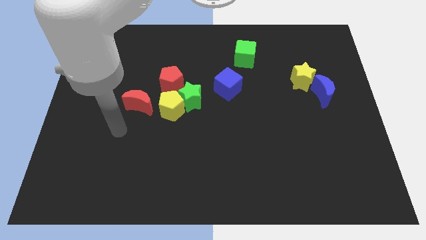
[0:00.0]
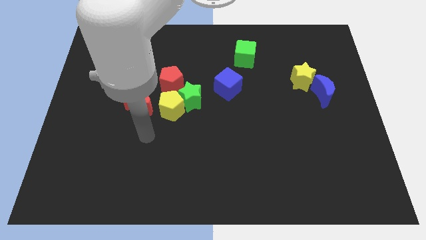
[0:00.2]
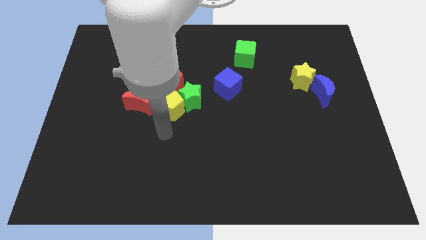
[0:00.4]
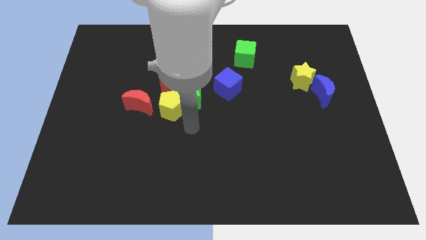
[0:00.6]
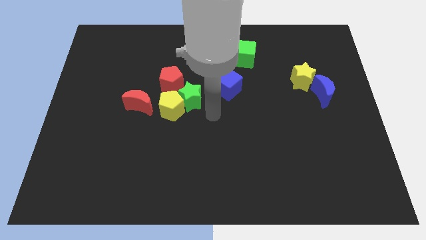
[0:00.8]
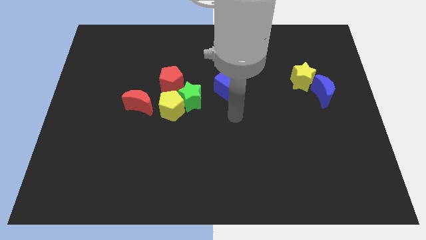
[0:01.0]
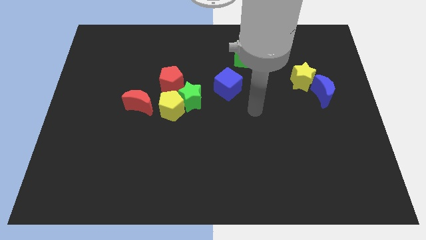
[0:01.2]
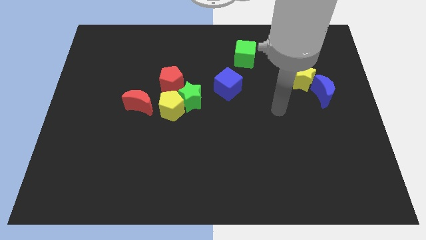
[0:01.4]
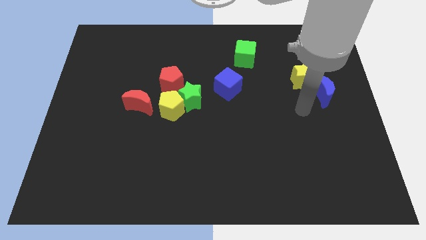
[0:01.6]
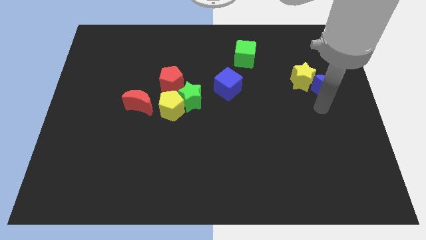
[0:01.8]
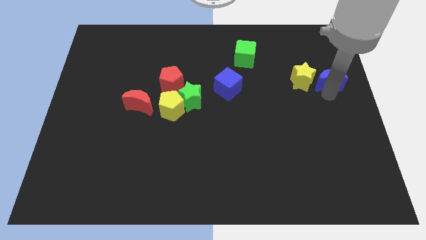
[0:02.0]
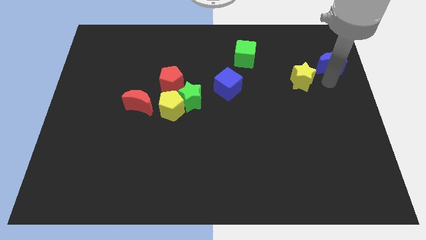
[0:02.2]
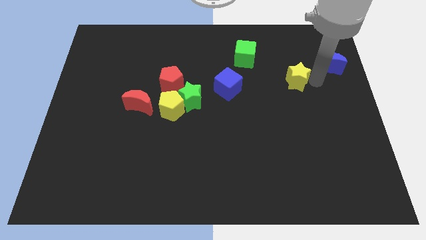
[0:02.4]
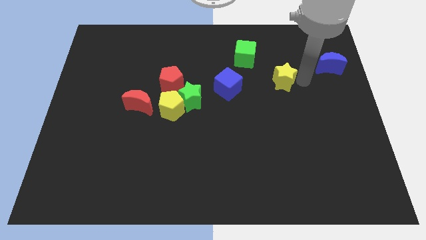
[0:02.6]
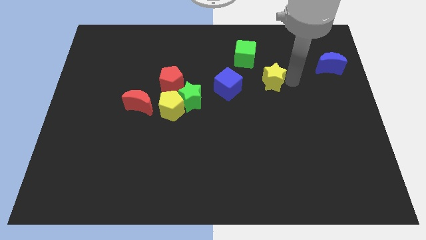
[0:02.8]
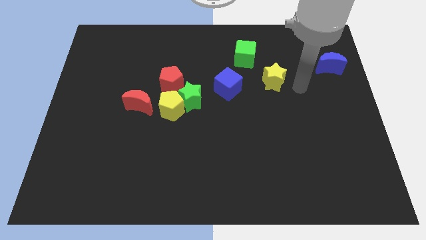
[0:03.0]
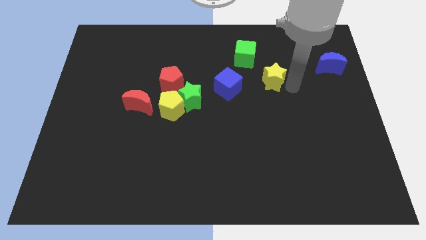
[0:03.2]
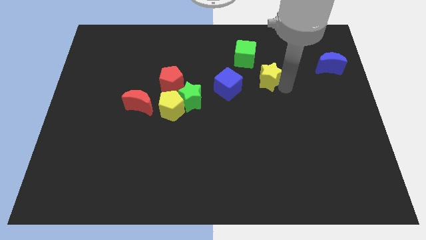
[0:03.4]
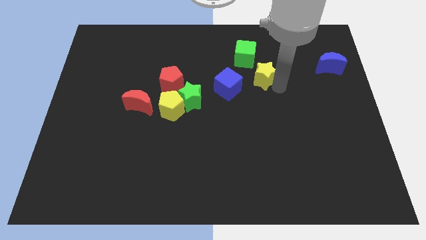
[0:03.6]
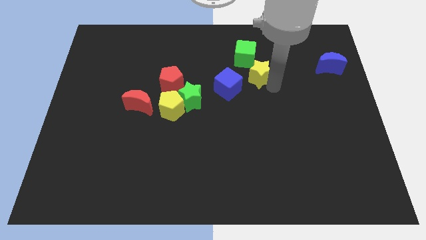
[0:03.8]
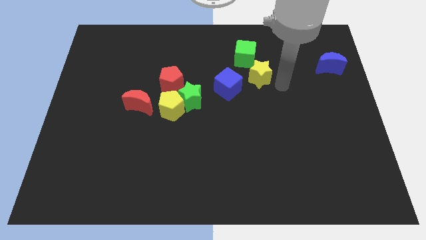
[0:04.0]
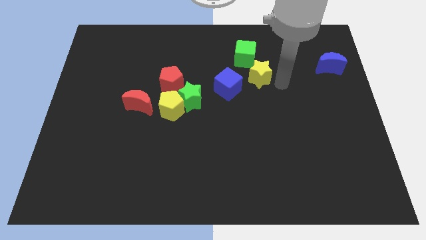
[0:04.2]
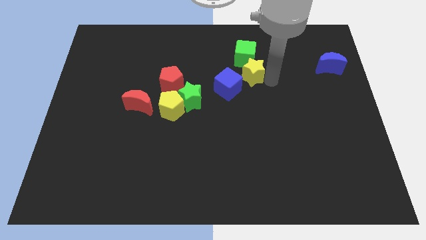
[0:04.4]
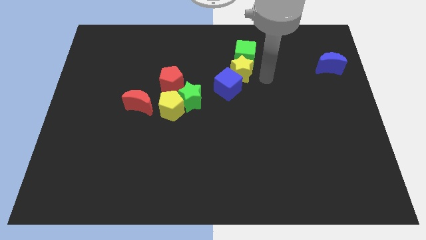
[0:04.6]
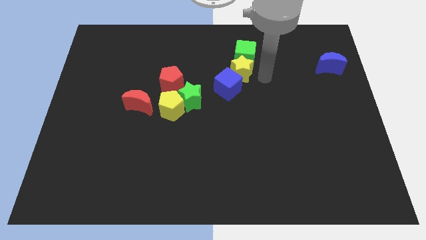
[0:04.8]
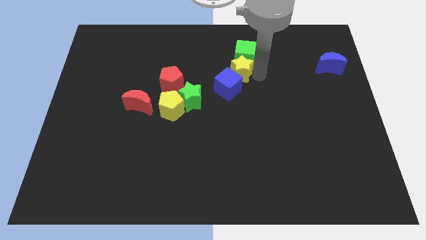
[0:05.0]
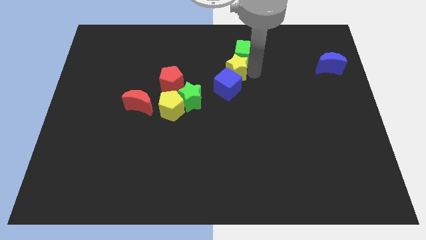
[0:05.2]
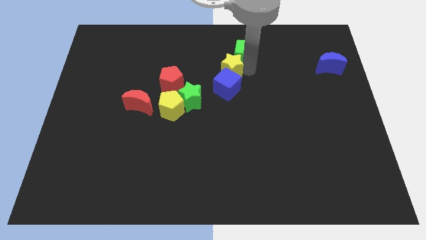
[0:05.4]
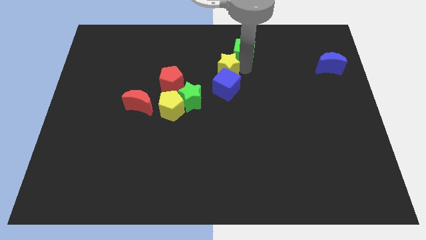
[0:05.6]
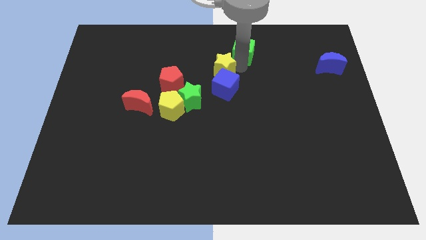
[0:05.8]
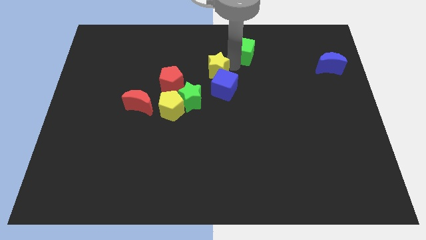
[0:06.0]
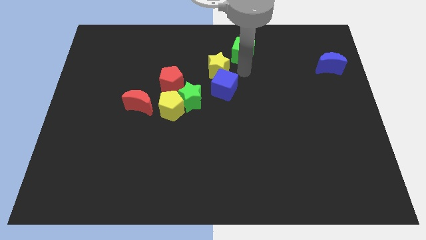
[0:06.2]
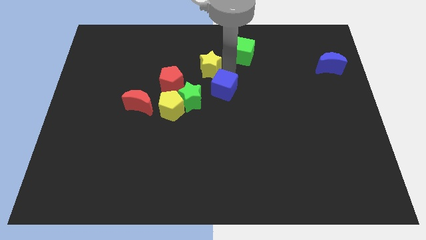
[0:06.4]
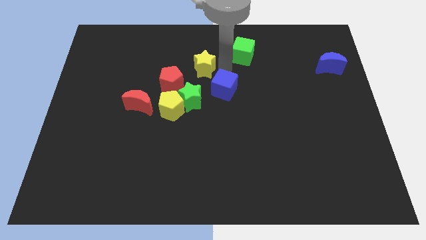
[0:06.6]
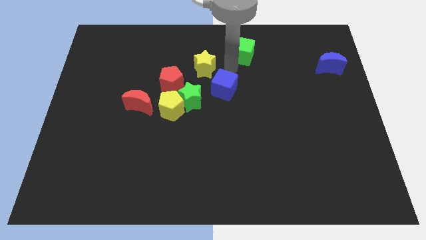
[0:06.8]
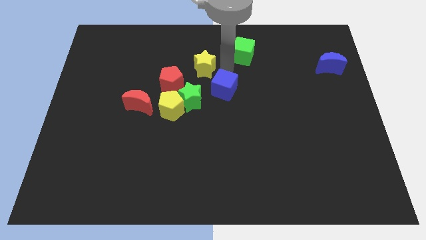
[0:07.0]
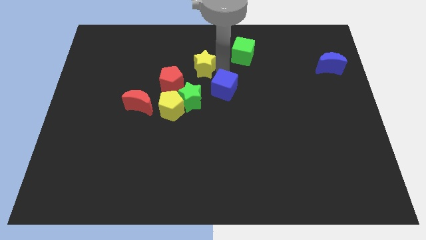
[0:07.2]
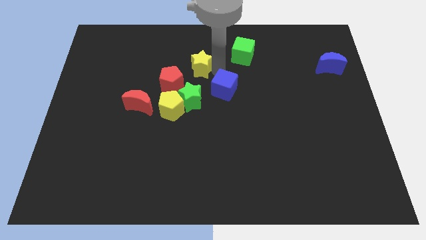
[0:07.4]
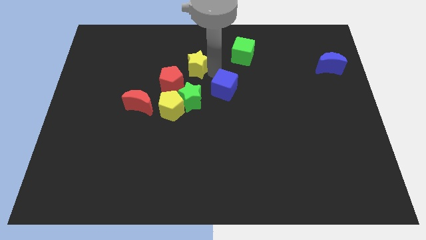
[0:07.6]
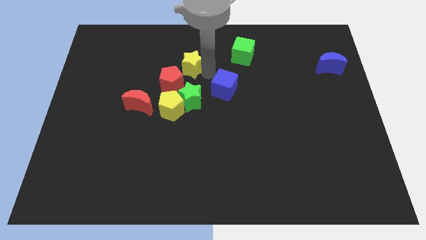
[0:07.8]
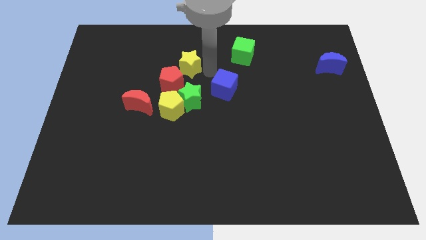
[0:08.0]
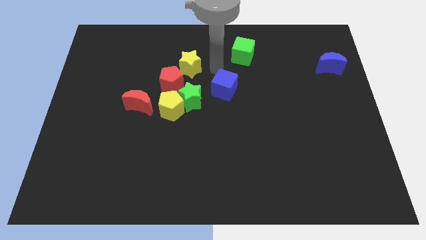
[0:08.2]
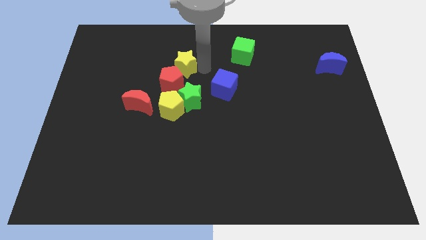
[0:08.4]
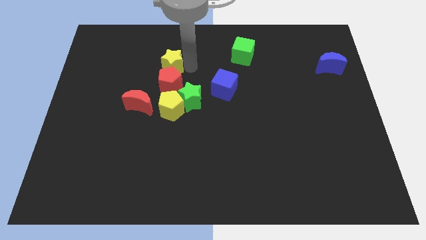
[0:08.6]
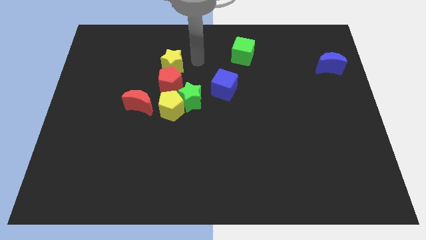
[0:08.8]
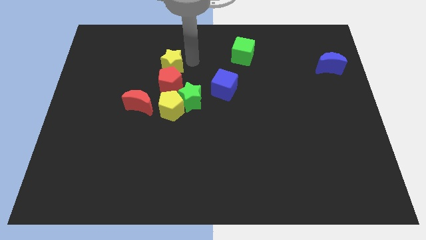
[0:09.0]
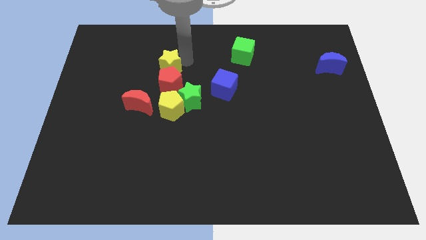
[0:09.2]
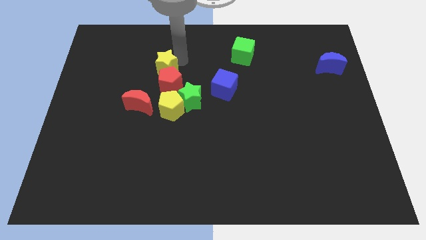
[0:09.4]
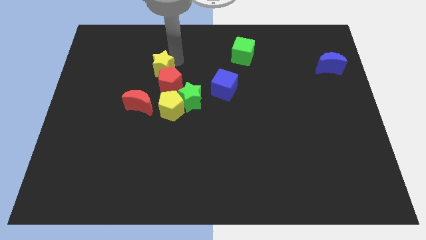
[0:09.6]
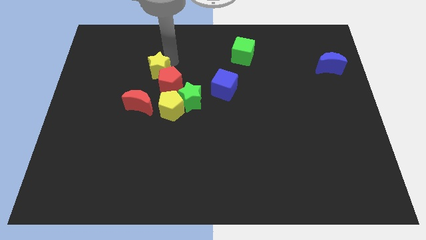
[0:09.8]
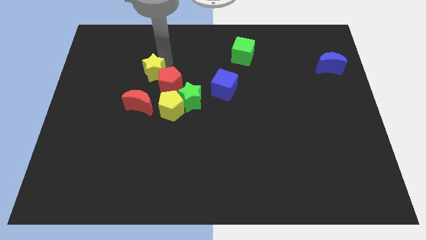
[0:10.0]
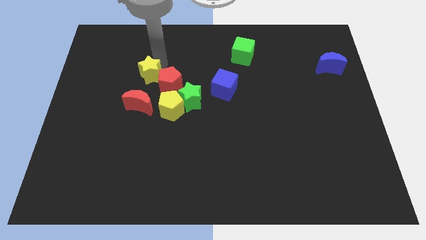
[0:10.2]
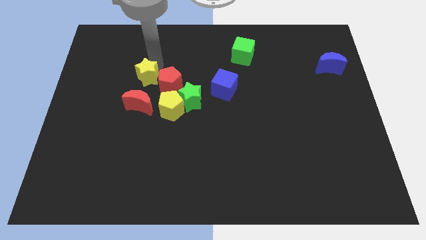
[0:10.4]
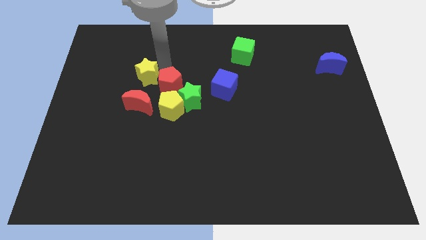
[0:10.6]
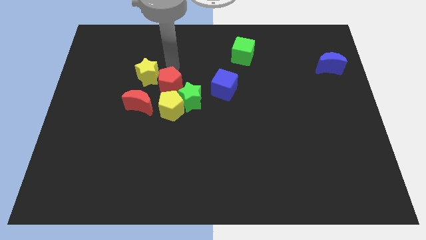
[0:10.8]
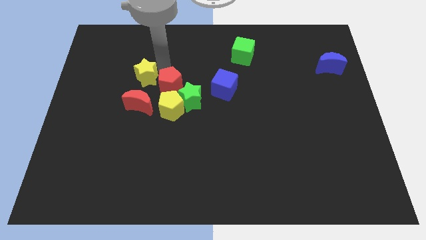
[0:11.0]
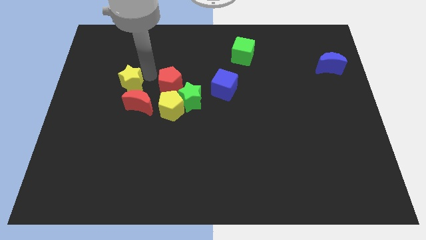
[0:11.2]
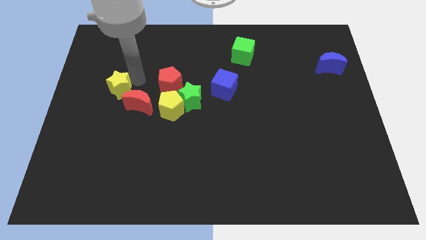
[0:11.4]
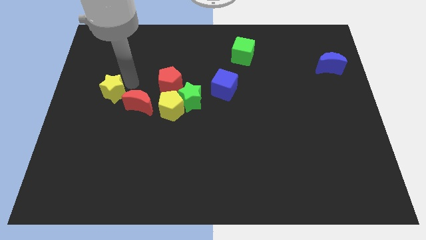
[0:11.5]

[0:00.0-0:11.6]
put the yellow star left of the red moon
